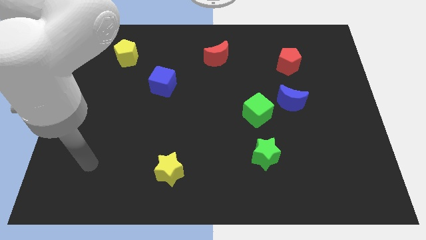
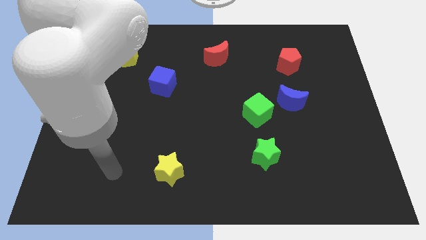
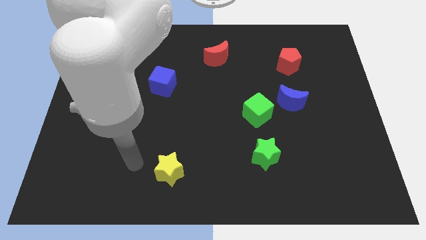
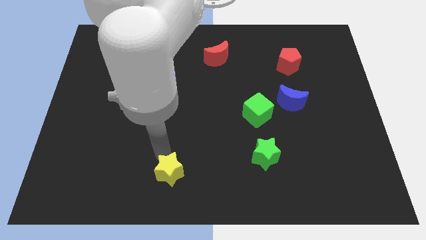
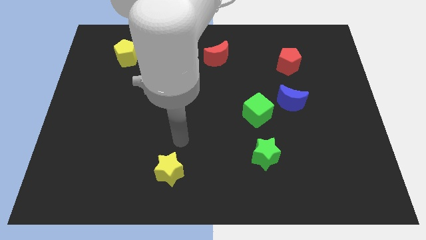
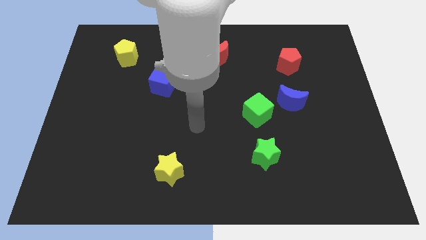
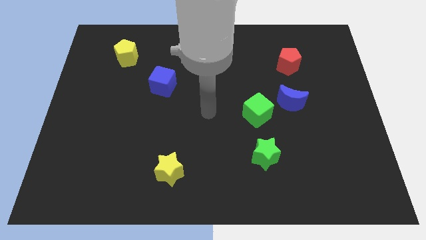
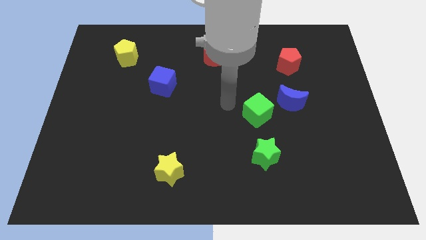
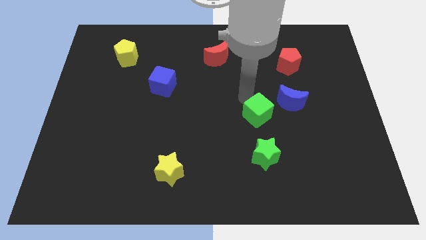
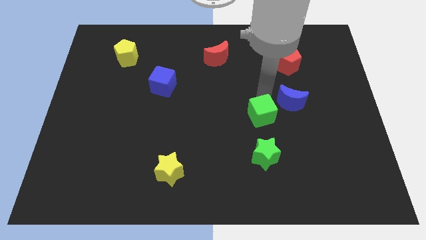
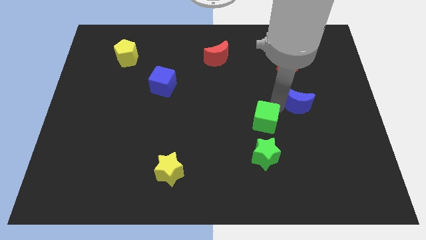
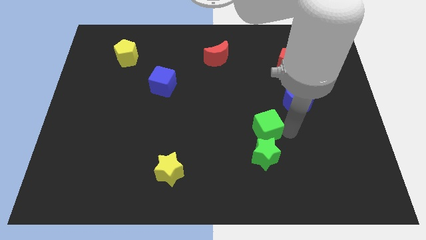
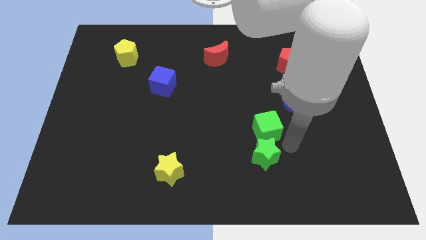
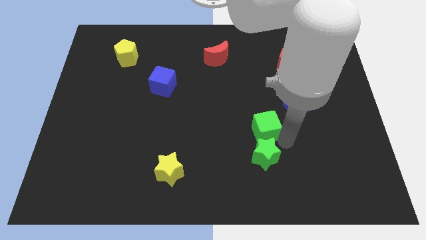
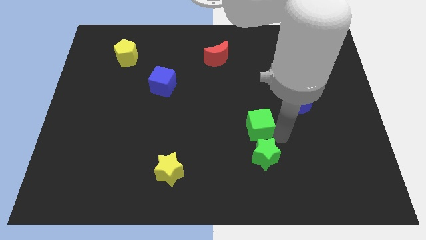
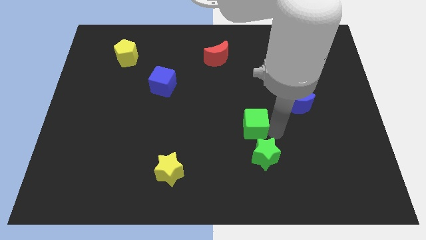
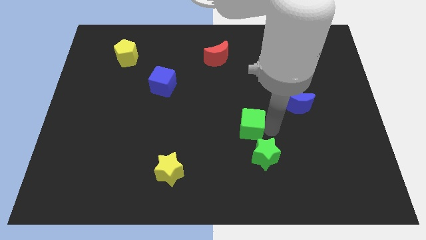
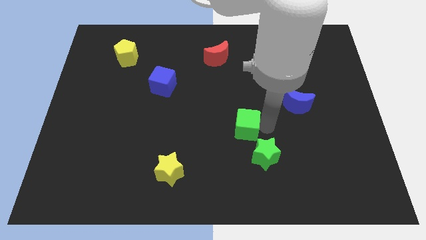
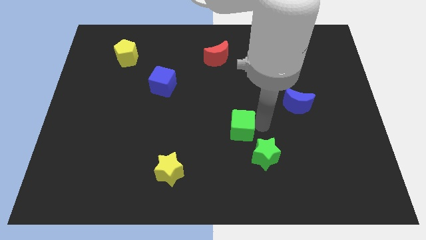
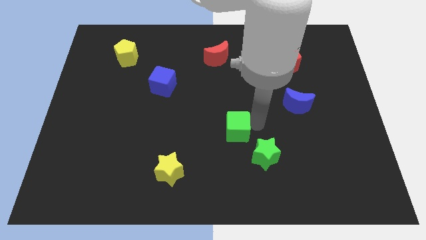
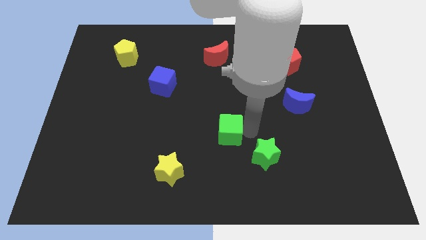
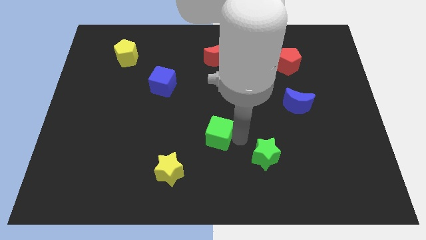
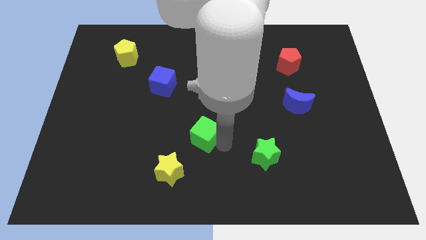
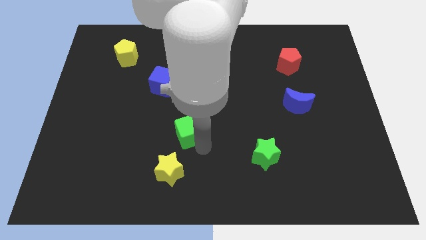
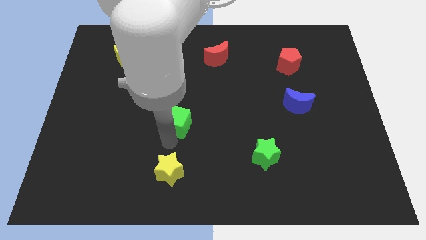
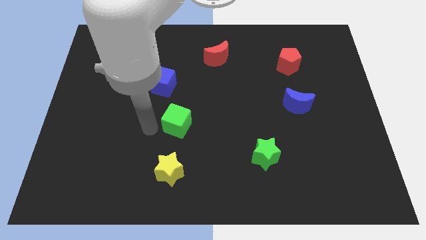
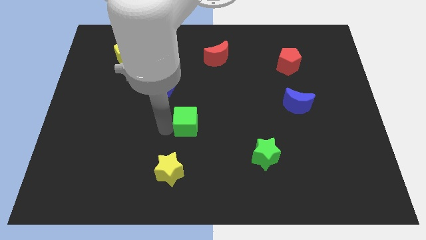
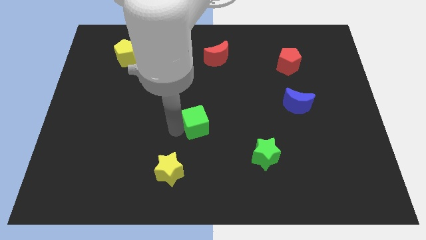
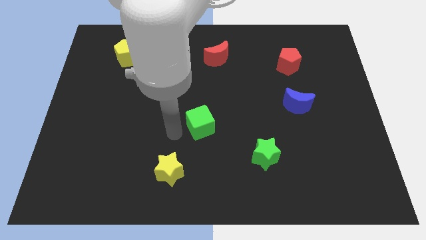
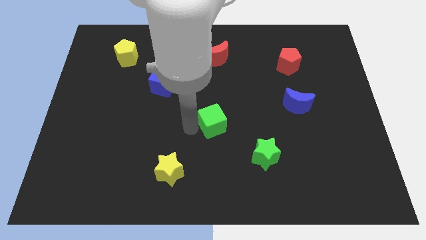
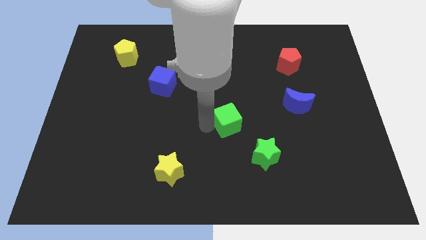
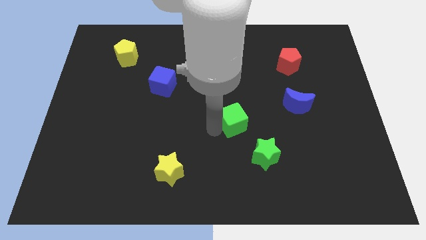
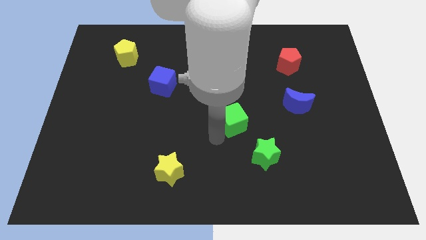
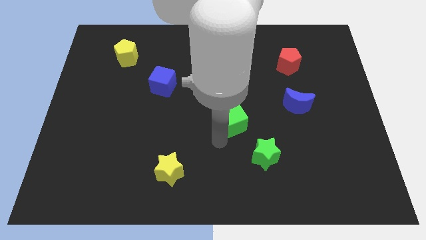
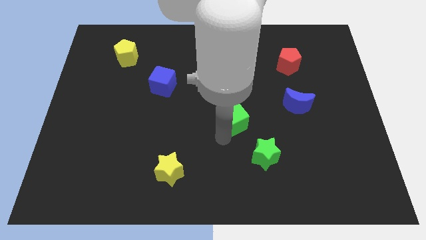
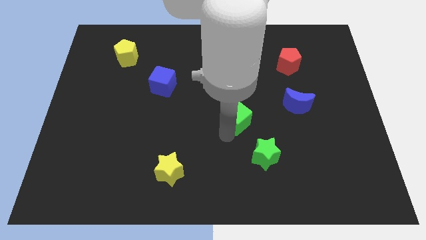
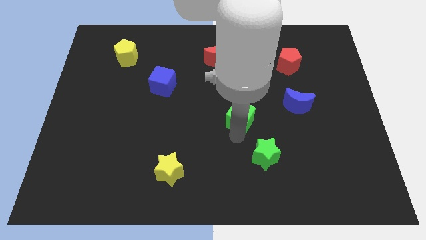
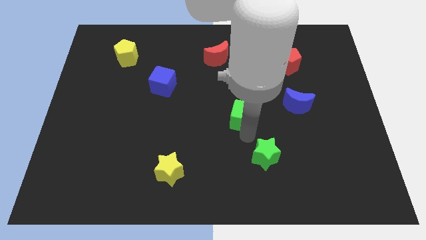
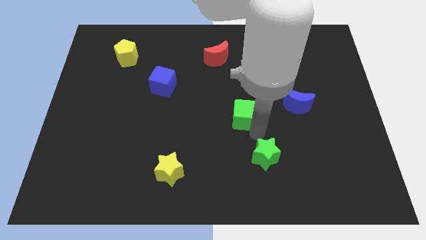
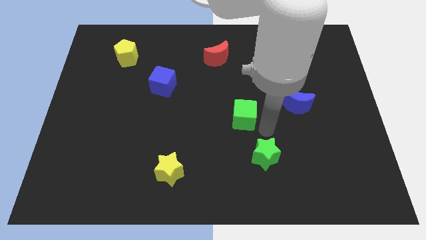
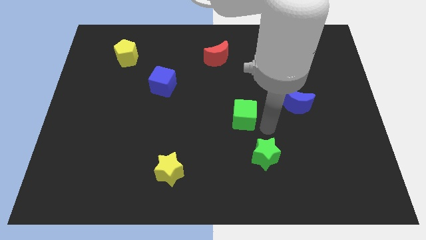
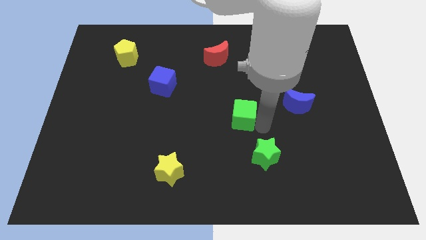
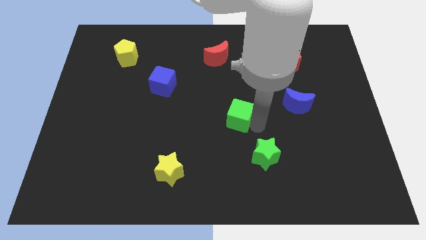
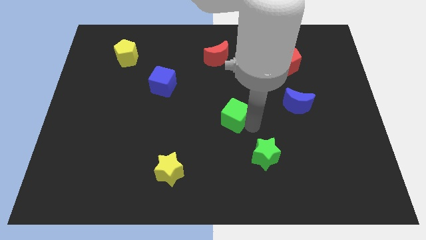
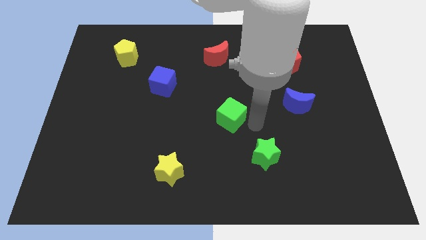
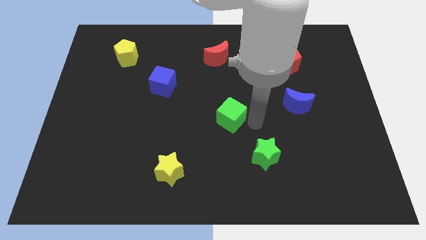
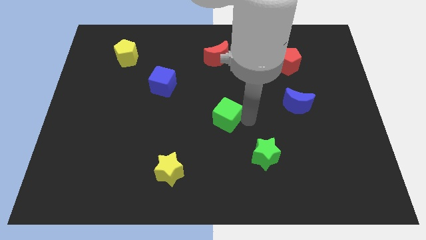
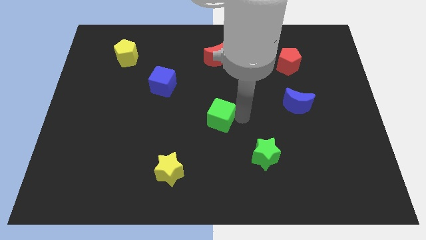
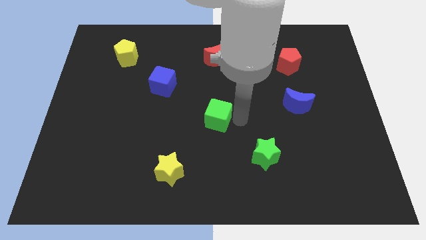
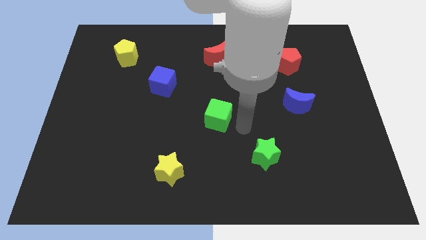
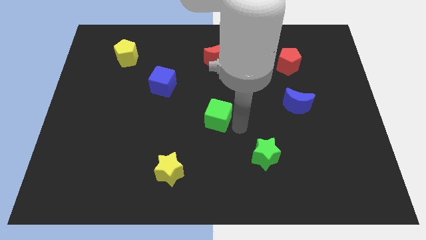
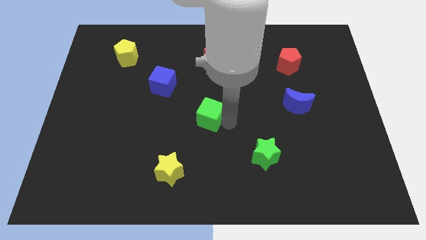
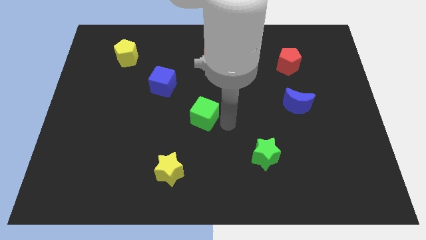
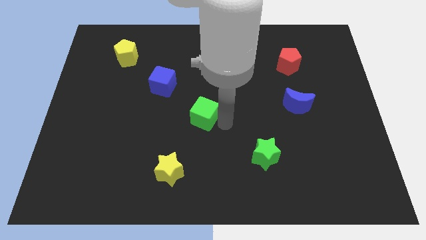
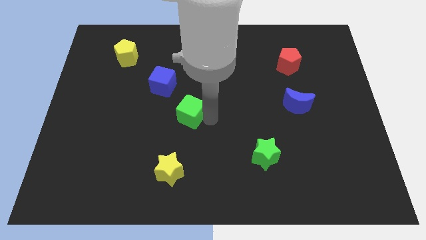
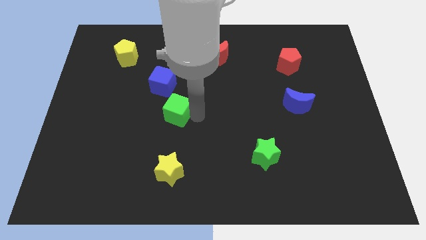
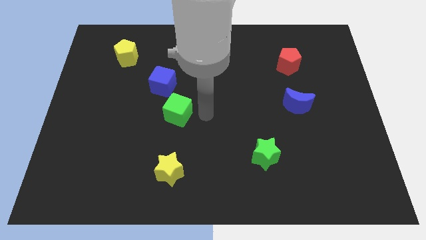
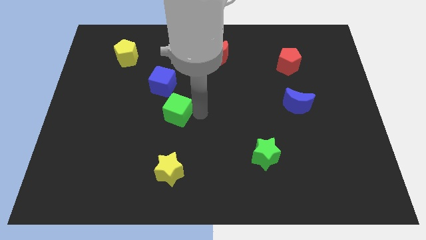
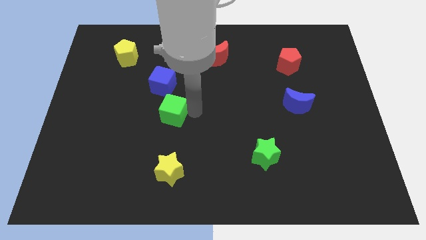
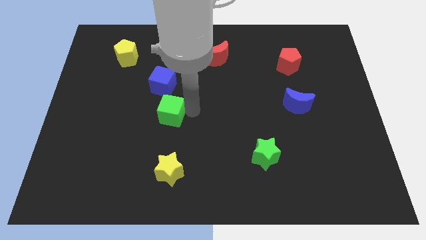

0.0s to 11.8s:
move the green cube left

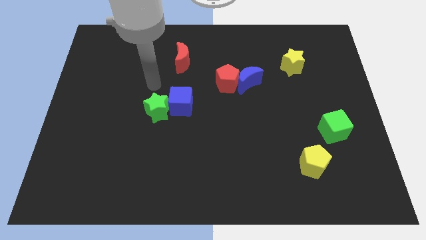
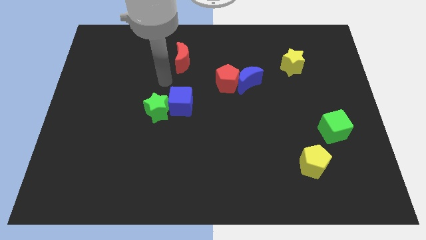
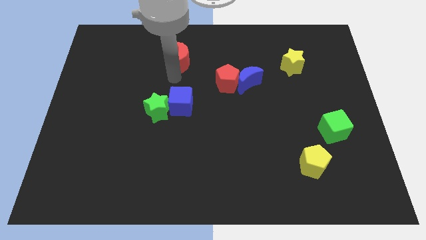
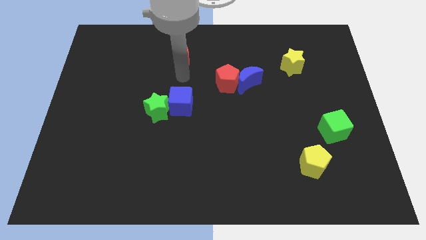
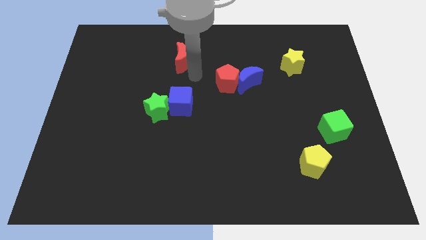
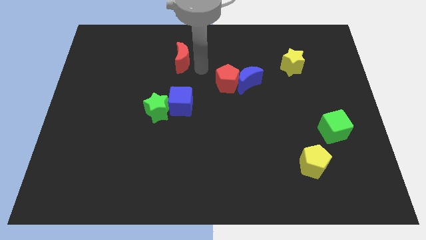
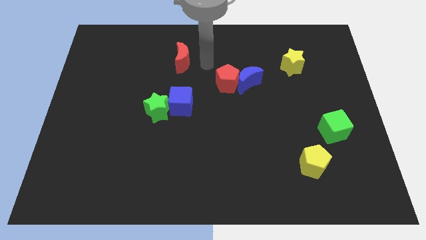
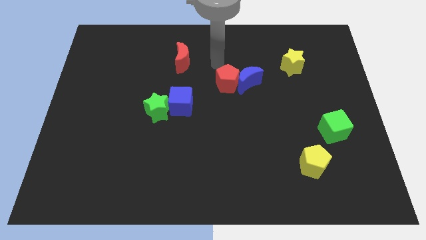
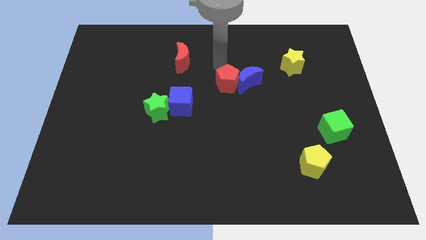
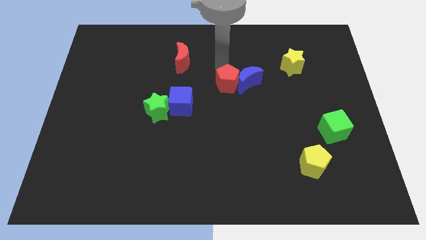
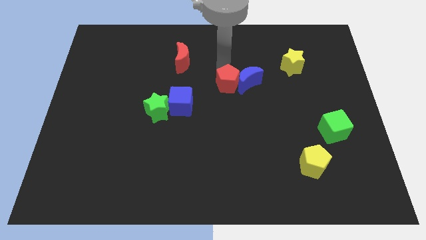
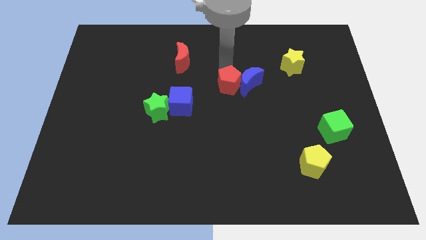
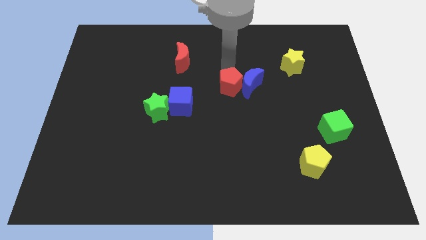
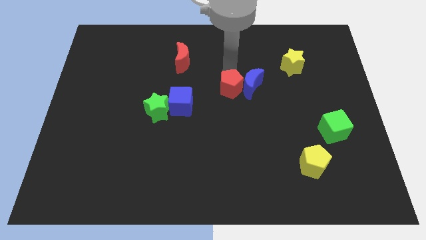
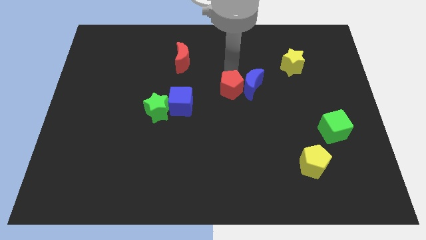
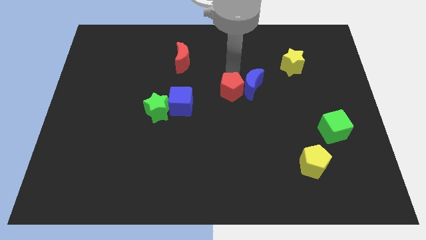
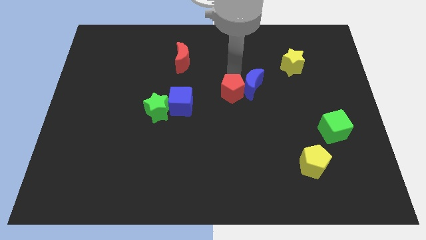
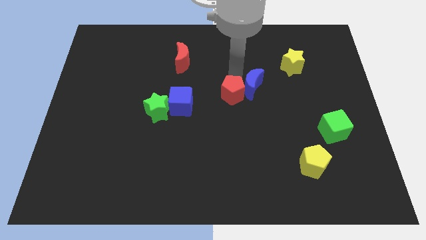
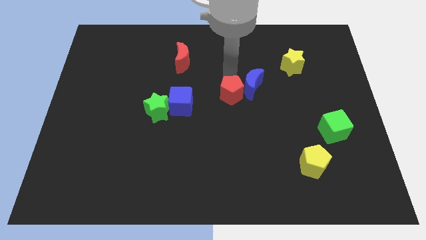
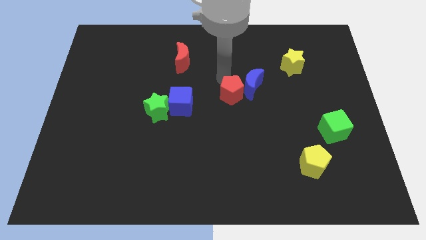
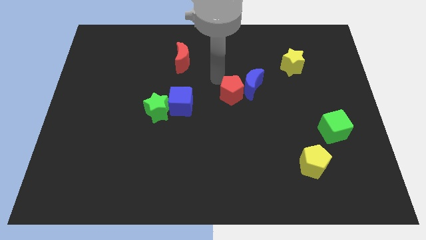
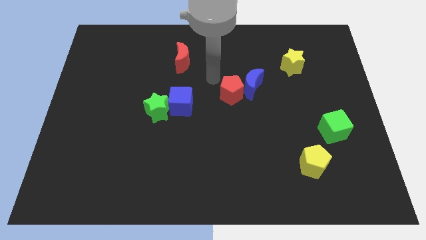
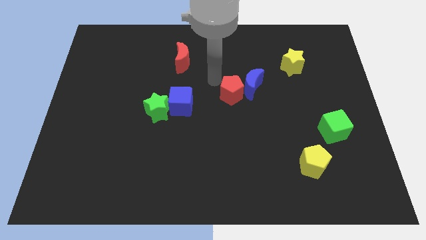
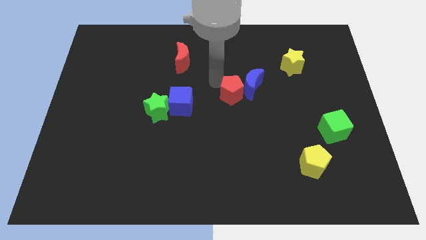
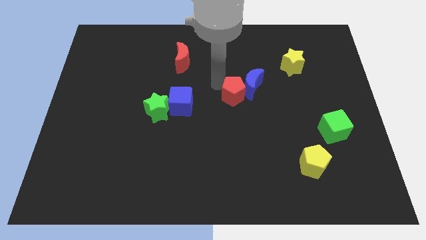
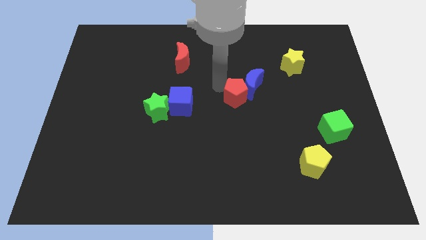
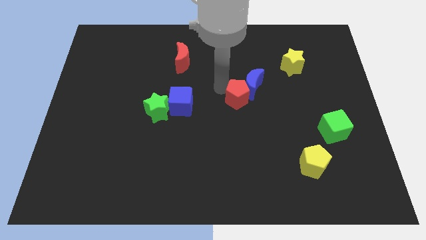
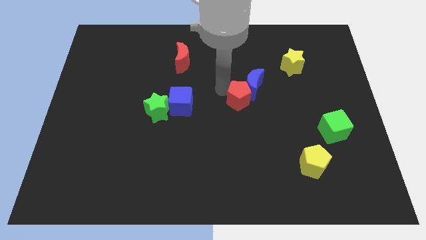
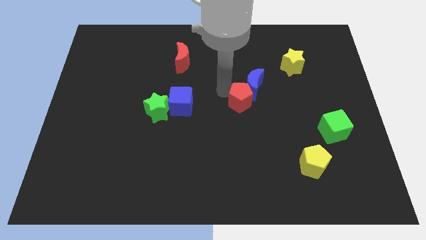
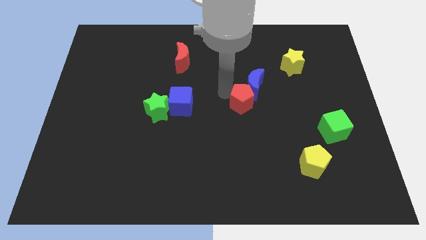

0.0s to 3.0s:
push the red pentagon diagonally down and right somewhat
